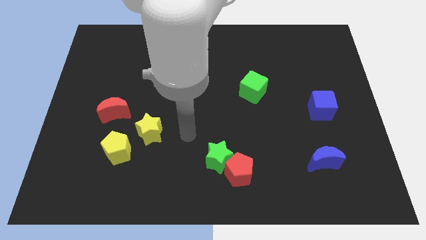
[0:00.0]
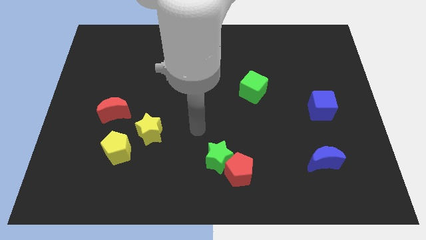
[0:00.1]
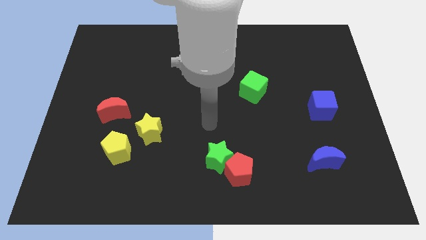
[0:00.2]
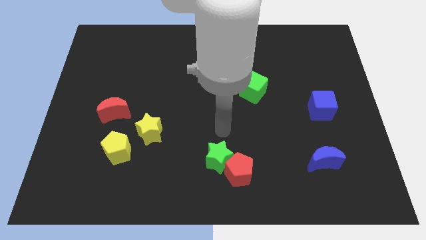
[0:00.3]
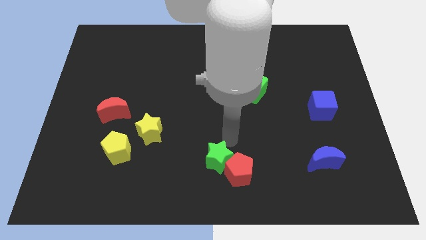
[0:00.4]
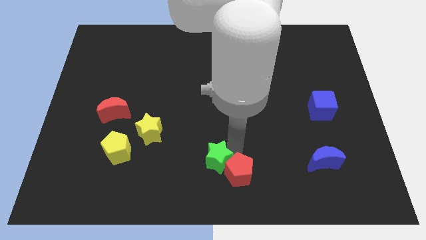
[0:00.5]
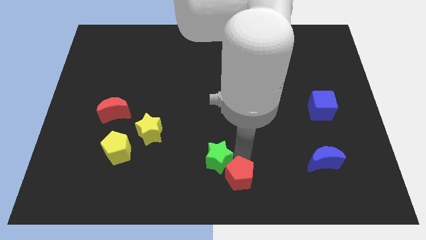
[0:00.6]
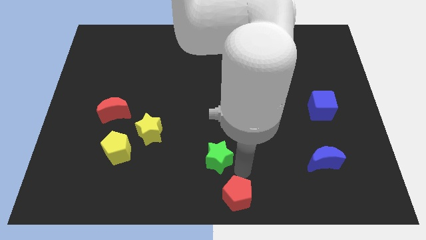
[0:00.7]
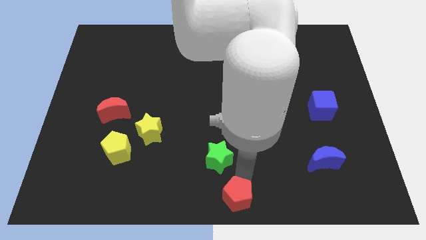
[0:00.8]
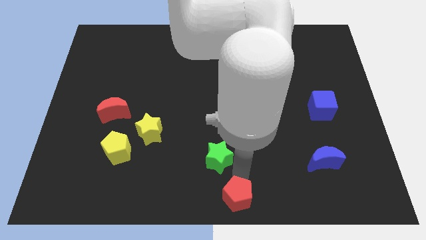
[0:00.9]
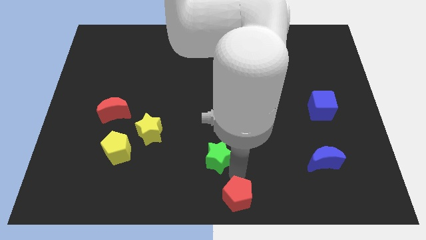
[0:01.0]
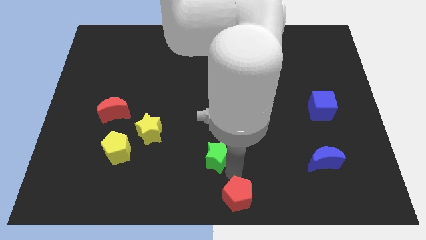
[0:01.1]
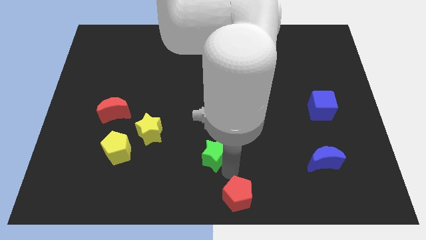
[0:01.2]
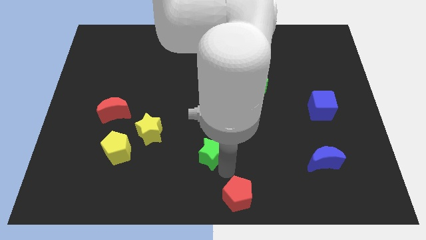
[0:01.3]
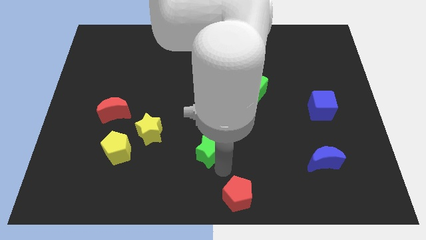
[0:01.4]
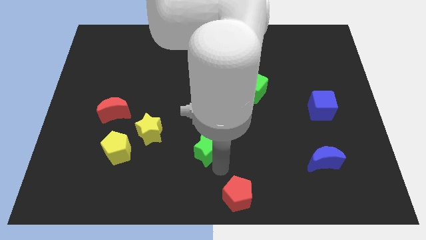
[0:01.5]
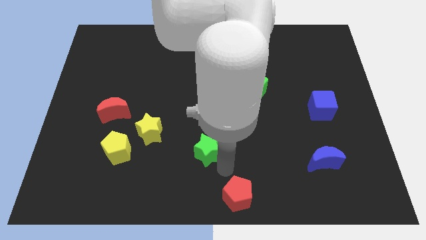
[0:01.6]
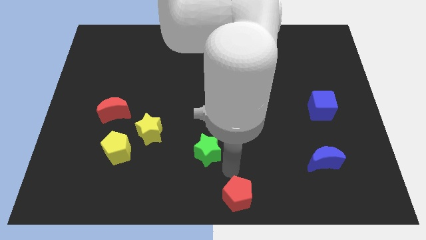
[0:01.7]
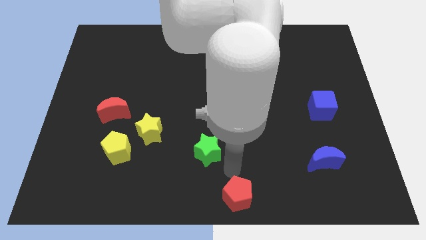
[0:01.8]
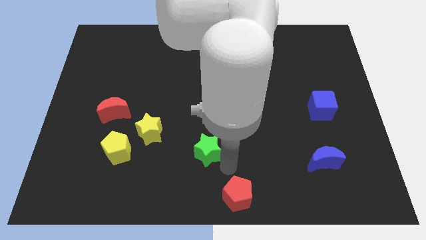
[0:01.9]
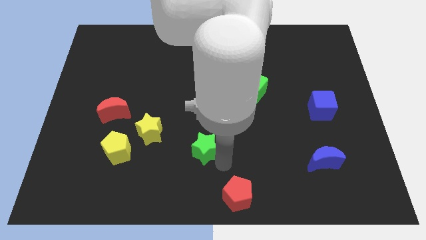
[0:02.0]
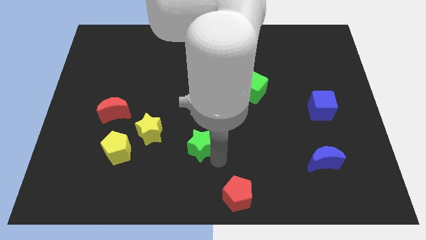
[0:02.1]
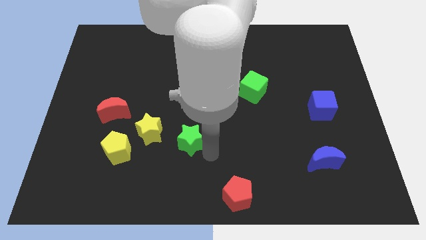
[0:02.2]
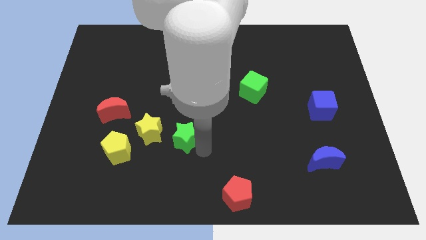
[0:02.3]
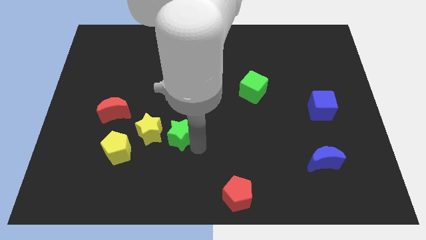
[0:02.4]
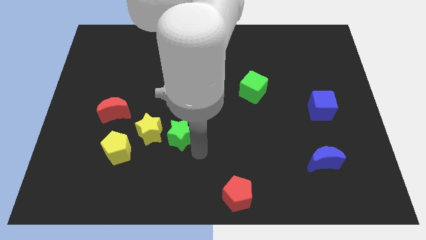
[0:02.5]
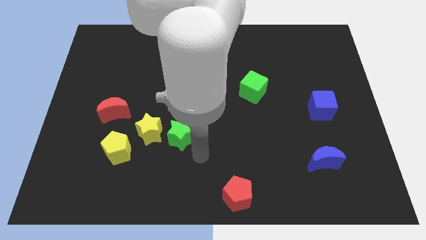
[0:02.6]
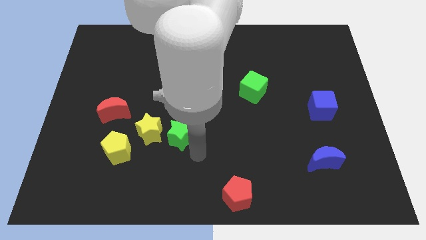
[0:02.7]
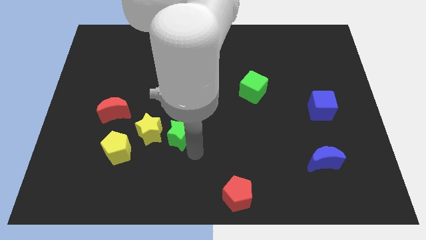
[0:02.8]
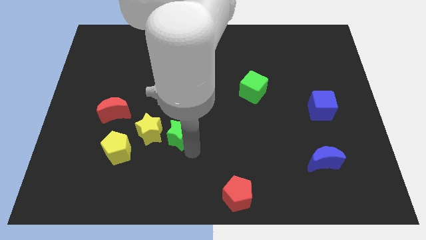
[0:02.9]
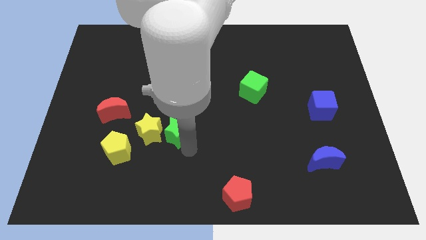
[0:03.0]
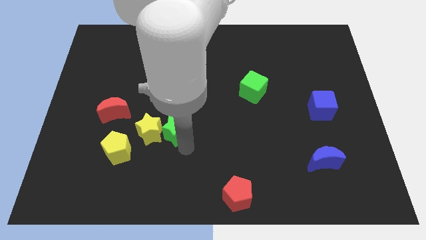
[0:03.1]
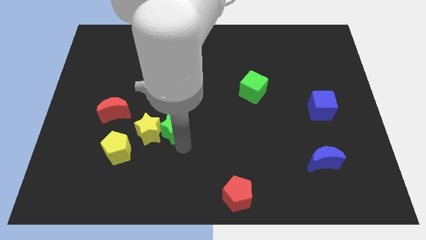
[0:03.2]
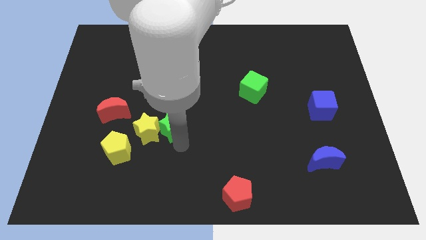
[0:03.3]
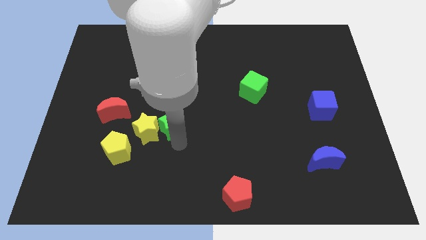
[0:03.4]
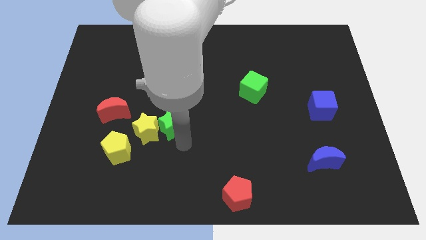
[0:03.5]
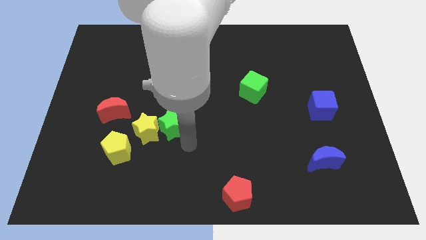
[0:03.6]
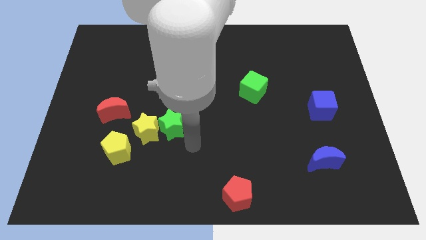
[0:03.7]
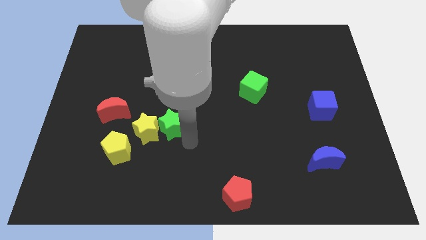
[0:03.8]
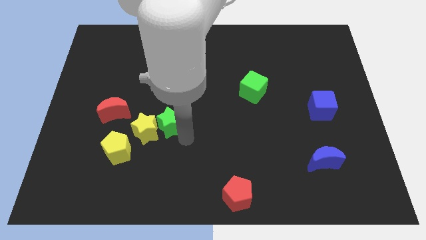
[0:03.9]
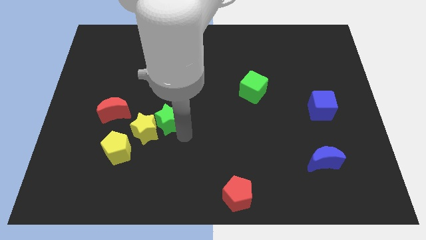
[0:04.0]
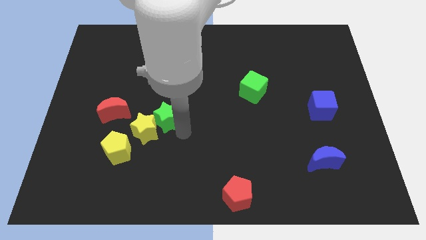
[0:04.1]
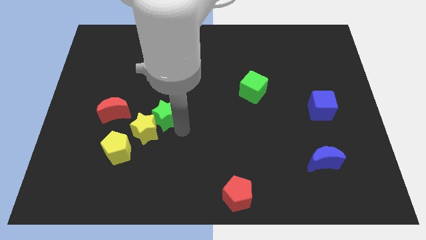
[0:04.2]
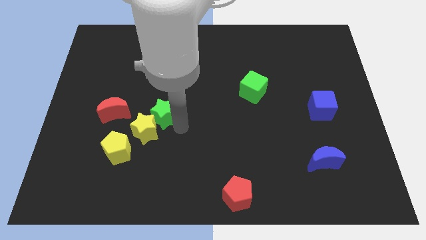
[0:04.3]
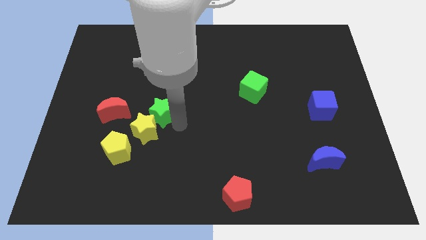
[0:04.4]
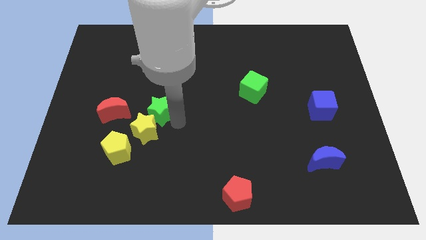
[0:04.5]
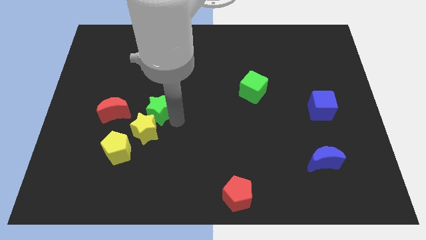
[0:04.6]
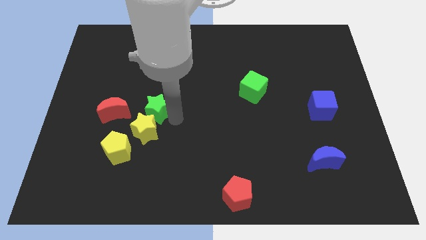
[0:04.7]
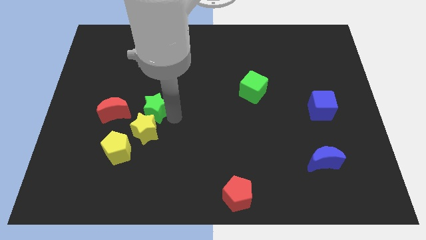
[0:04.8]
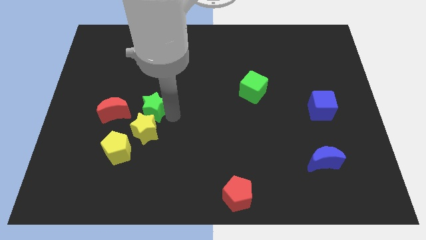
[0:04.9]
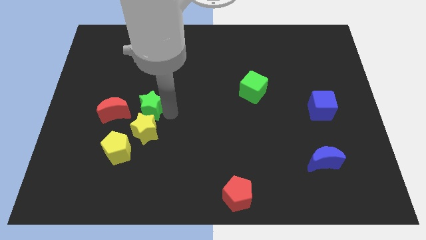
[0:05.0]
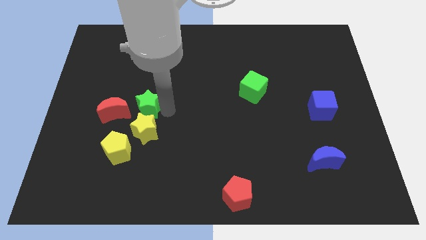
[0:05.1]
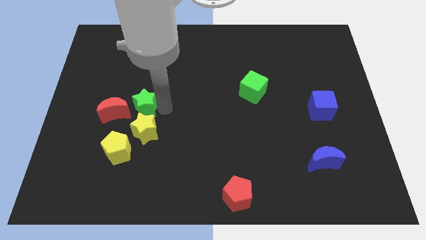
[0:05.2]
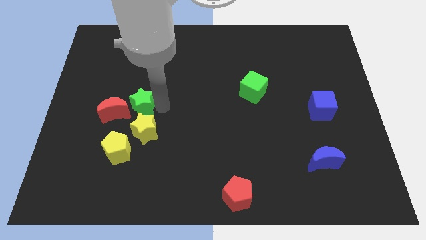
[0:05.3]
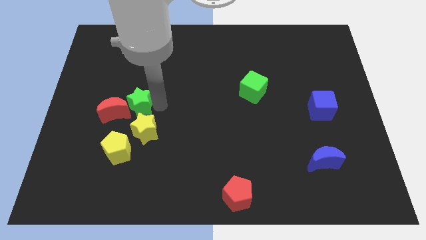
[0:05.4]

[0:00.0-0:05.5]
push the green star close to the red moon

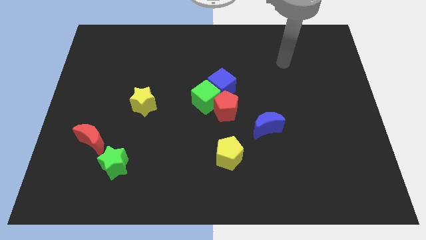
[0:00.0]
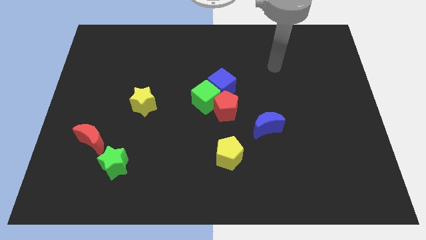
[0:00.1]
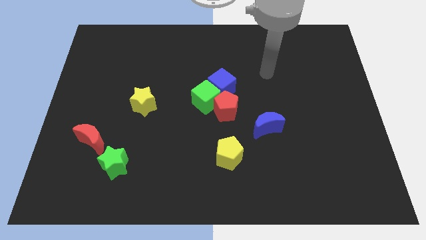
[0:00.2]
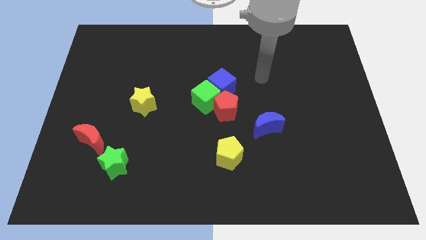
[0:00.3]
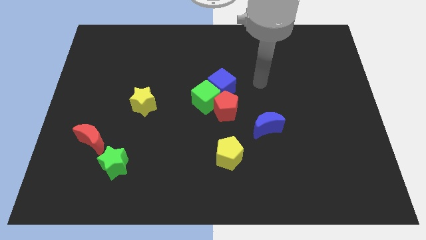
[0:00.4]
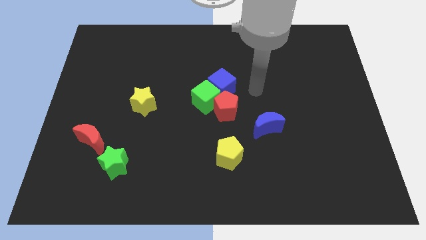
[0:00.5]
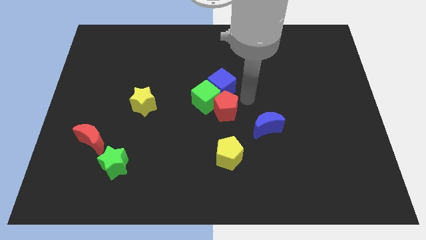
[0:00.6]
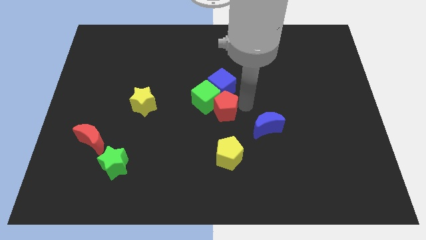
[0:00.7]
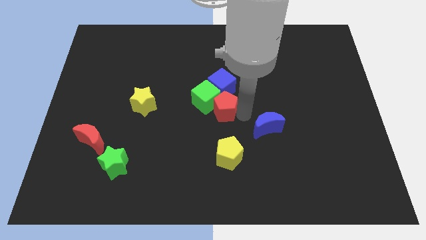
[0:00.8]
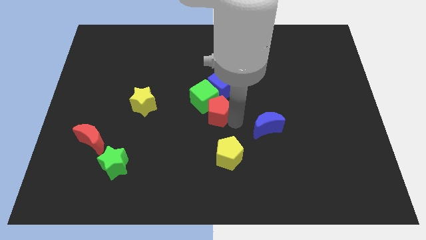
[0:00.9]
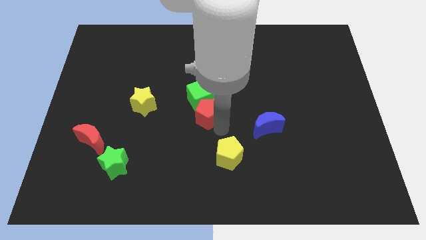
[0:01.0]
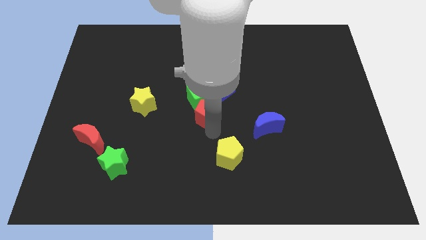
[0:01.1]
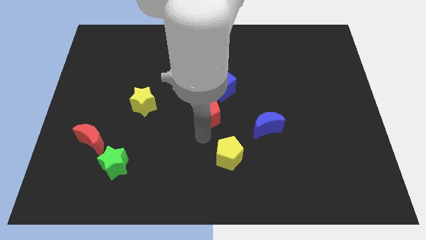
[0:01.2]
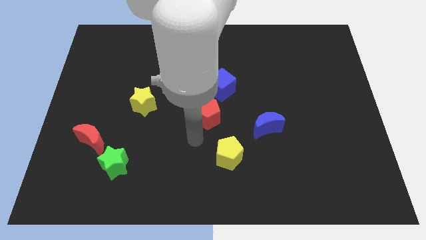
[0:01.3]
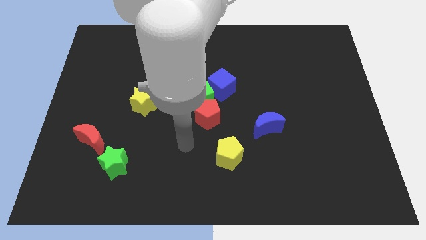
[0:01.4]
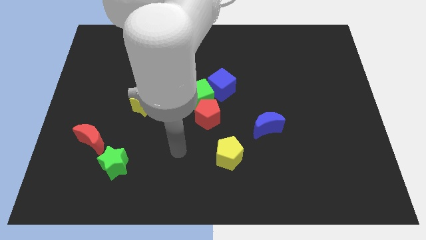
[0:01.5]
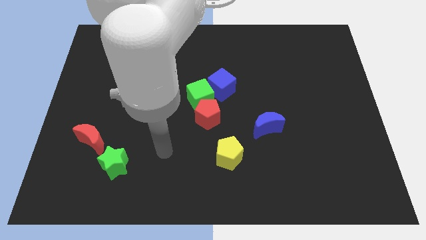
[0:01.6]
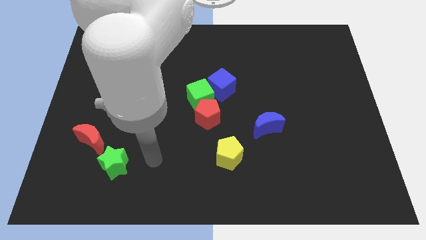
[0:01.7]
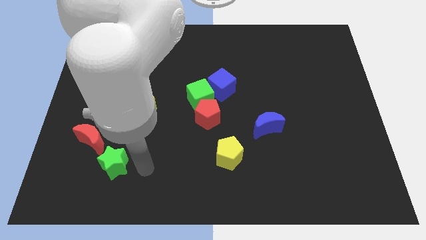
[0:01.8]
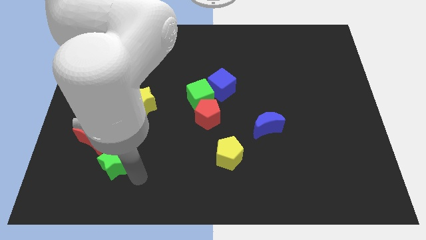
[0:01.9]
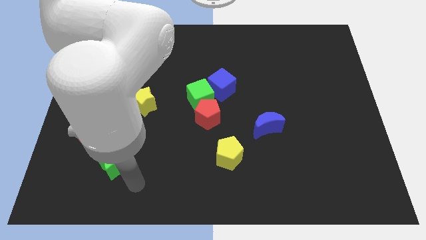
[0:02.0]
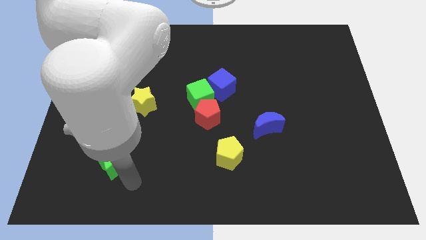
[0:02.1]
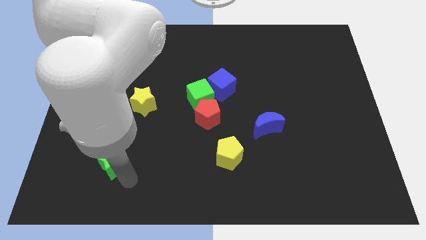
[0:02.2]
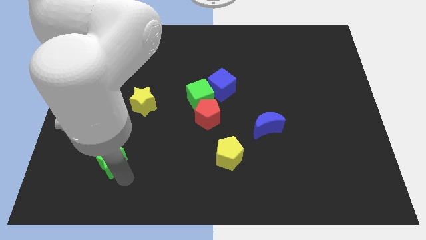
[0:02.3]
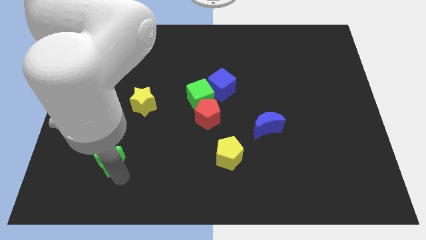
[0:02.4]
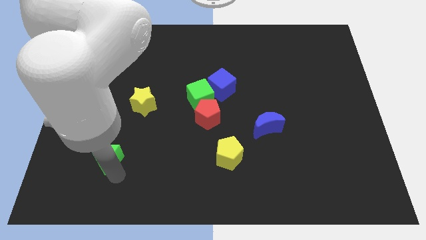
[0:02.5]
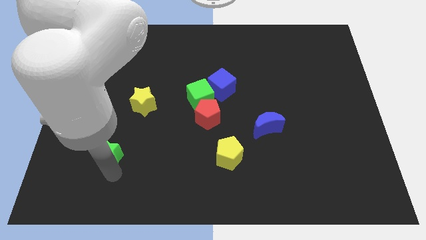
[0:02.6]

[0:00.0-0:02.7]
push the green star next to the red moon
